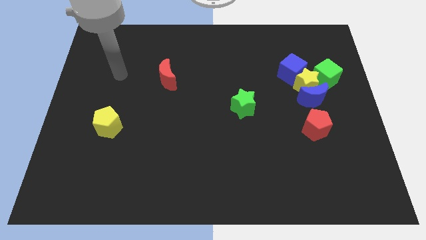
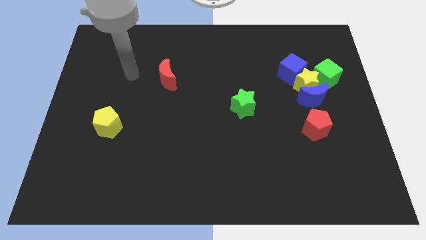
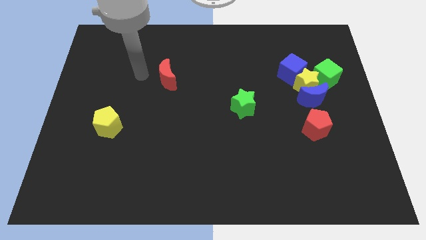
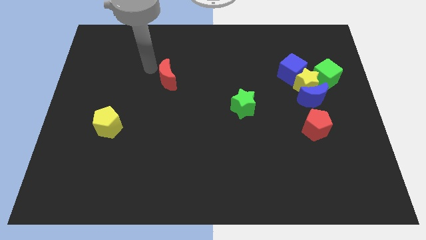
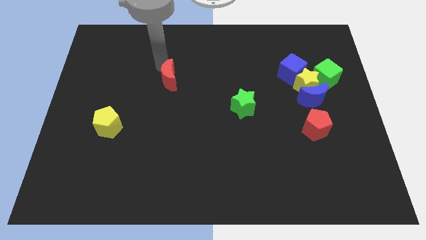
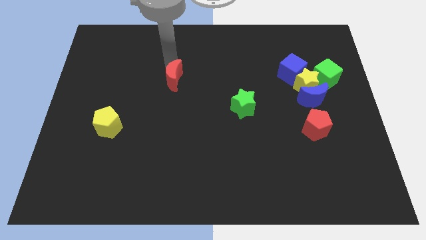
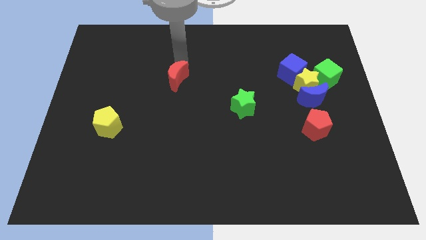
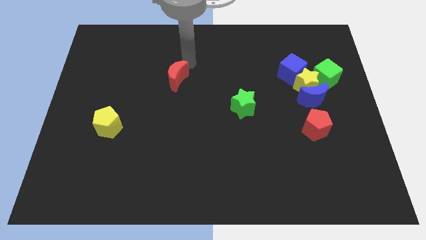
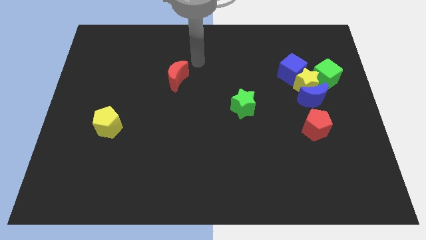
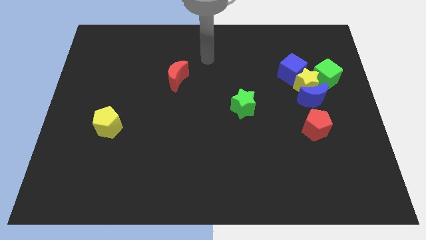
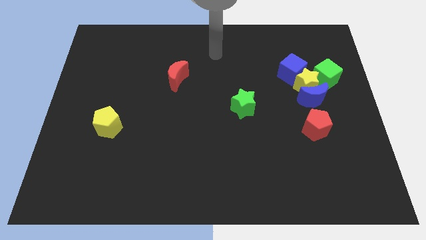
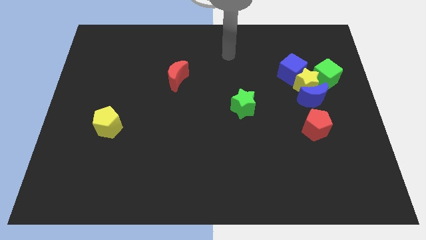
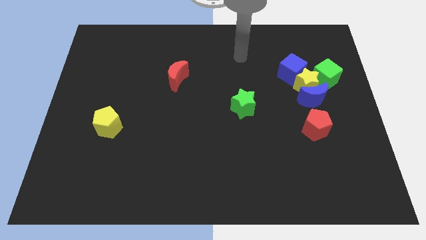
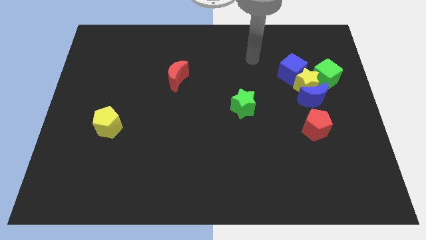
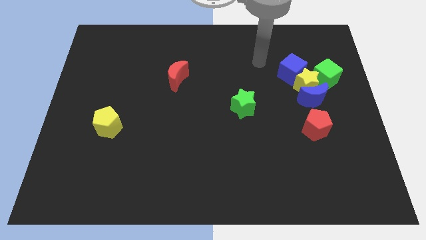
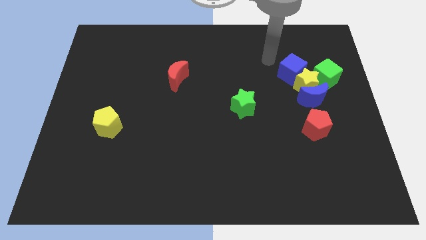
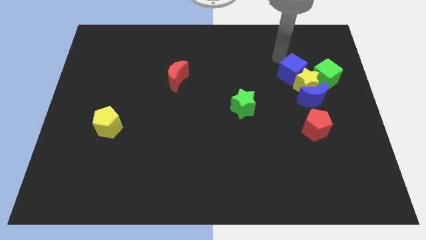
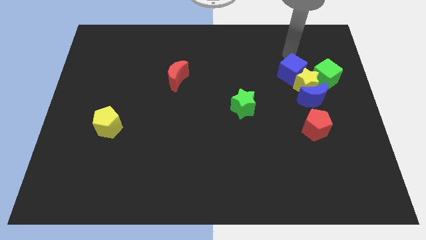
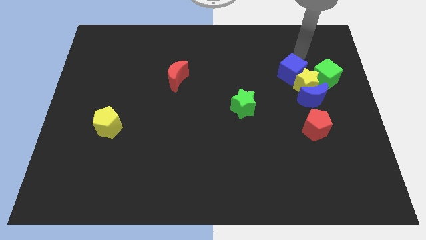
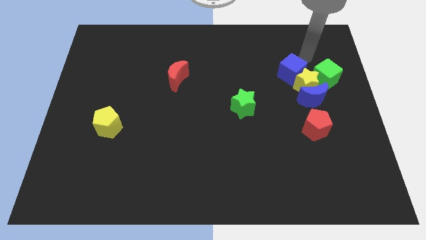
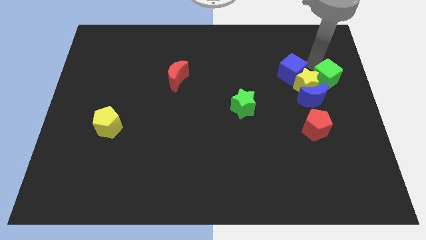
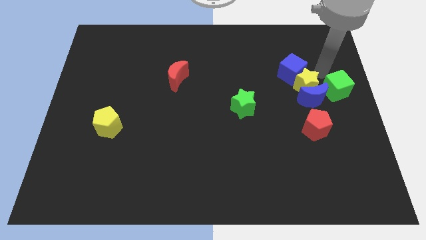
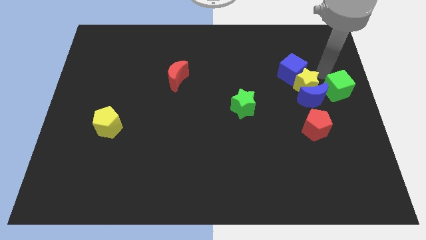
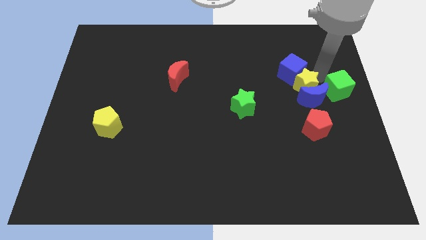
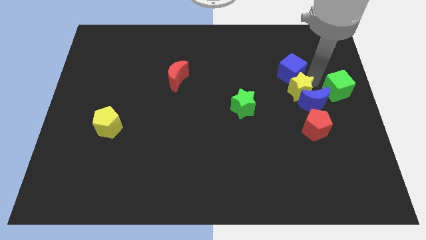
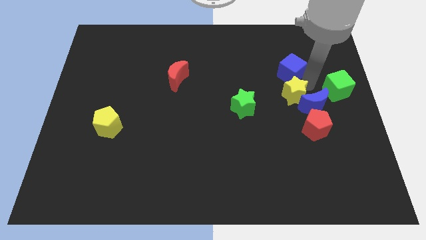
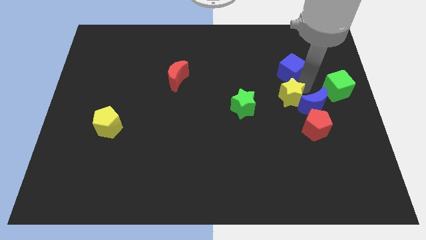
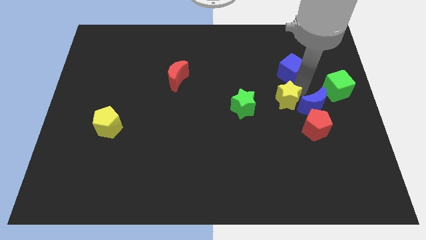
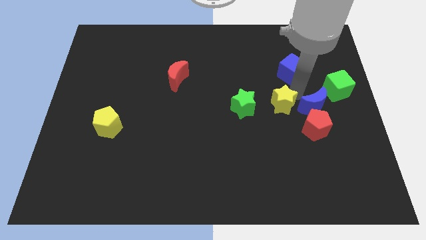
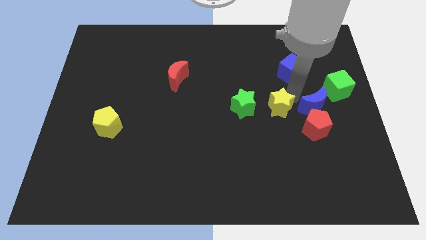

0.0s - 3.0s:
separate the yellow star from the group

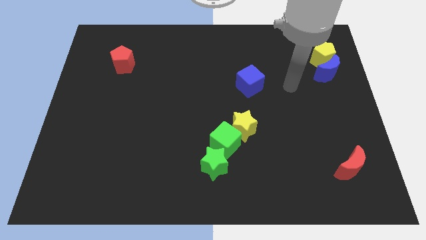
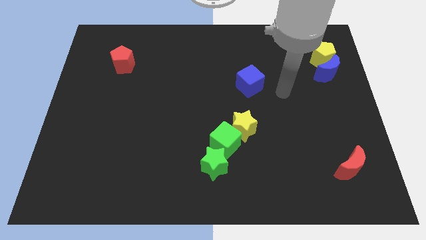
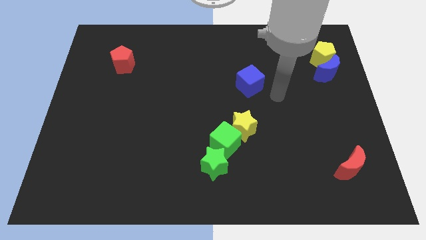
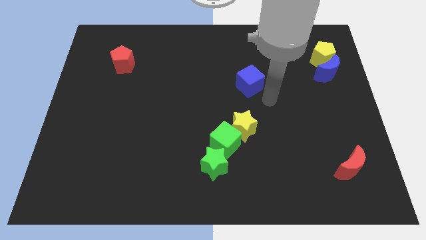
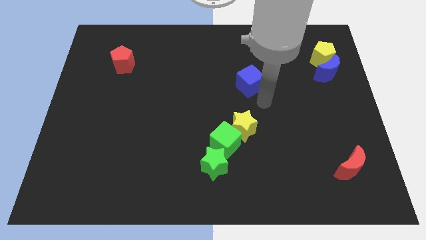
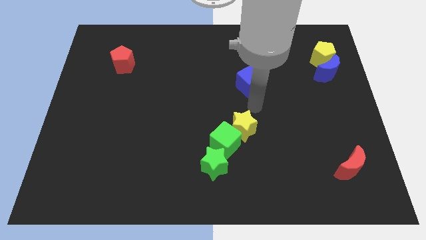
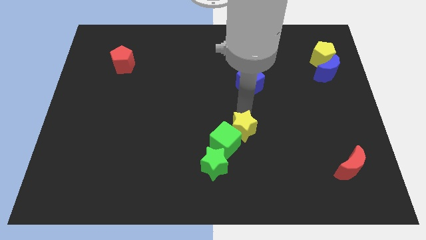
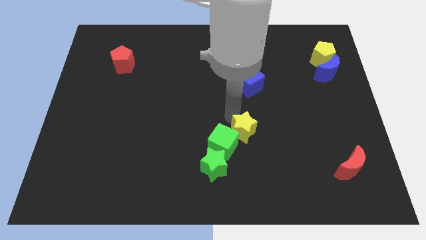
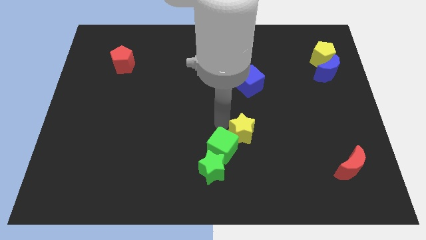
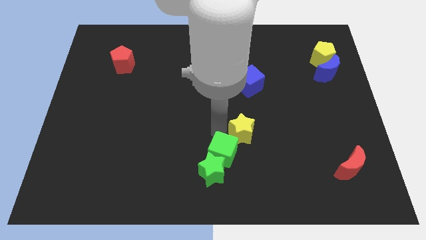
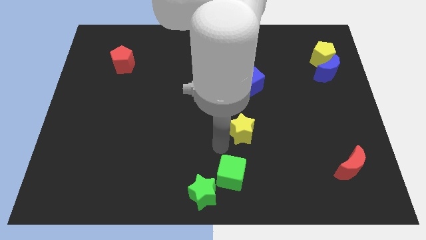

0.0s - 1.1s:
separate the yellow star from the green cube

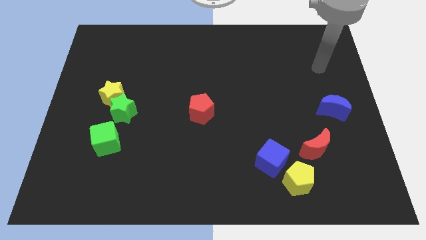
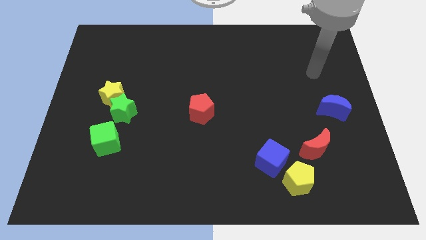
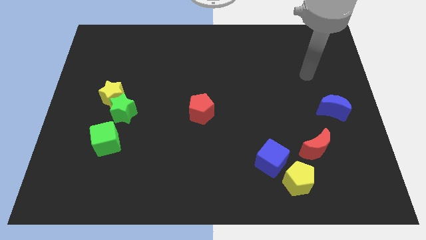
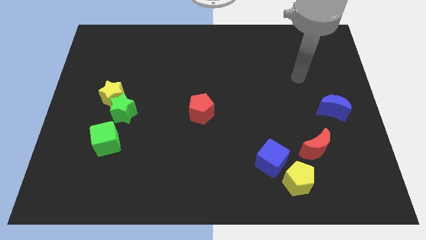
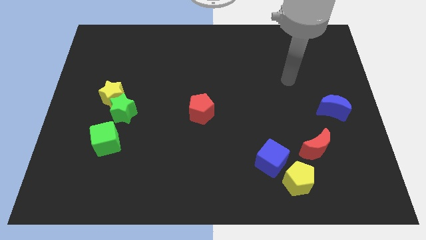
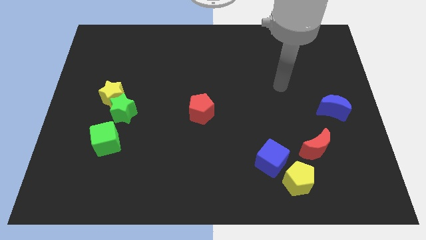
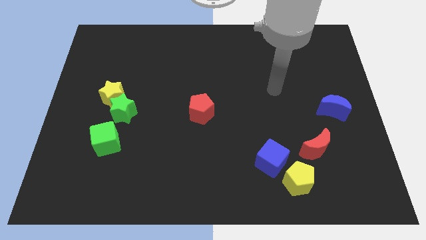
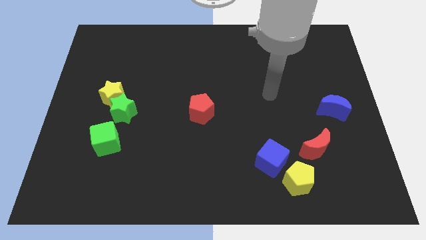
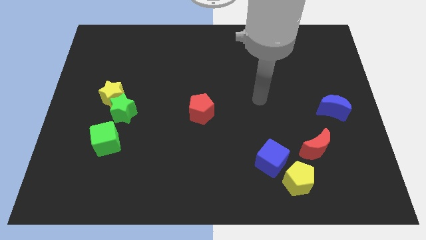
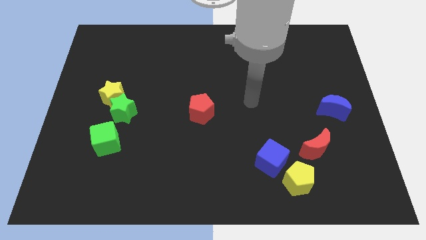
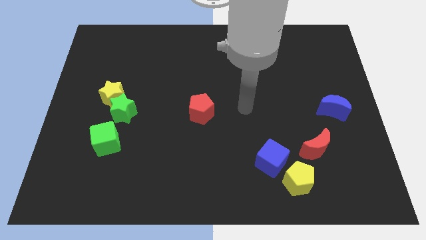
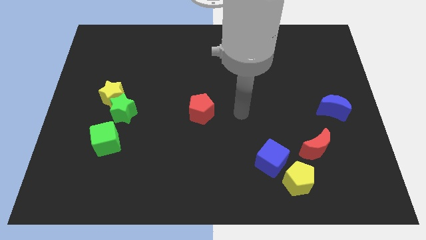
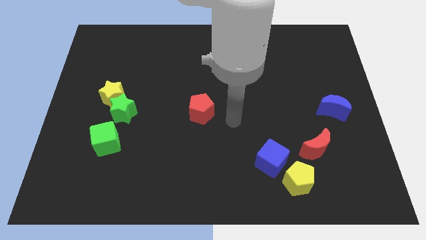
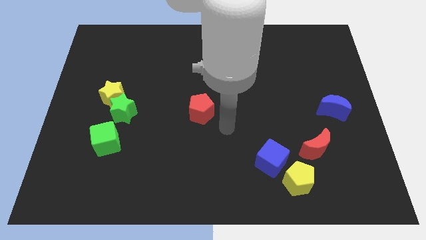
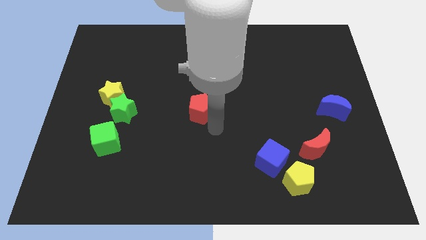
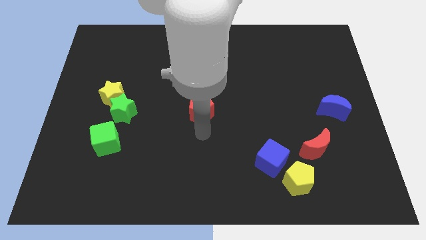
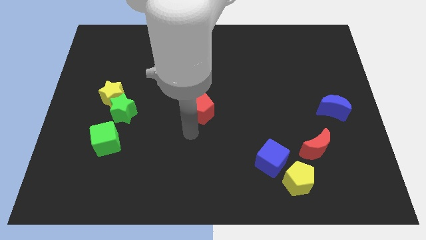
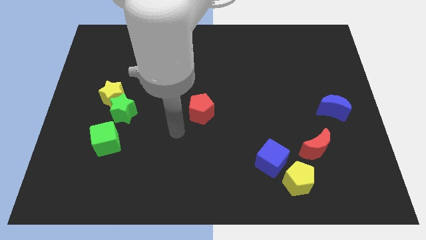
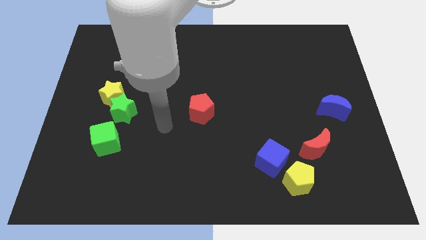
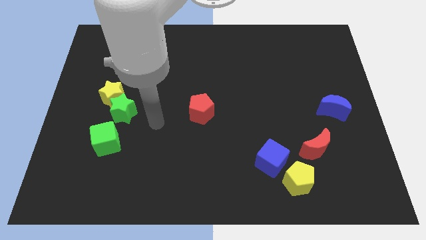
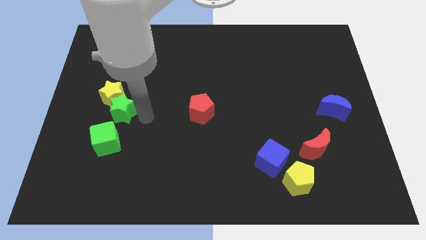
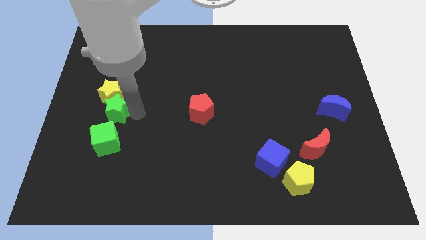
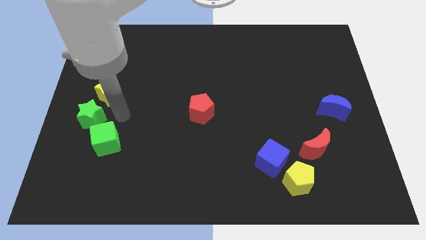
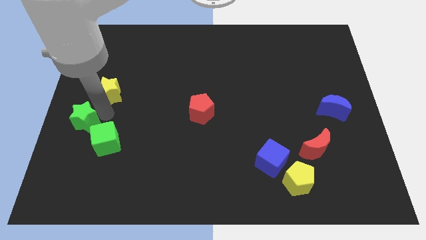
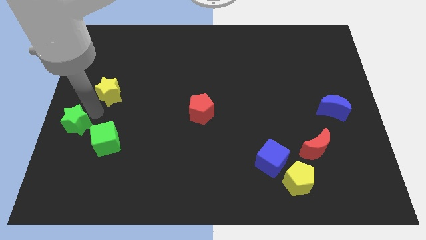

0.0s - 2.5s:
pull the yellow star apart from the green star

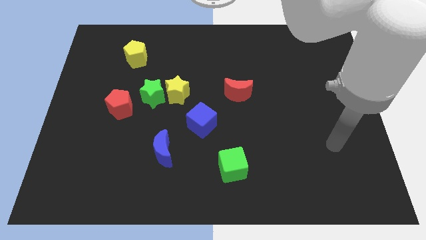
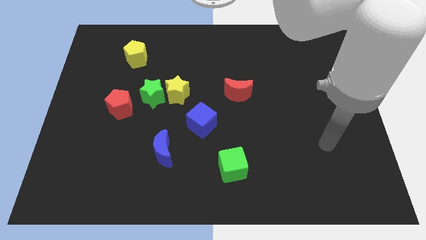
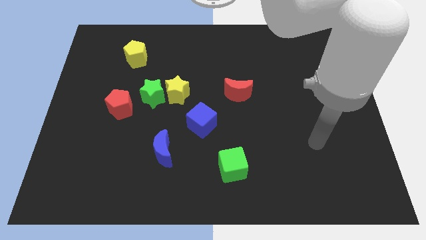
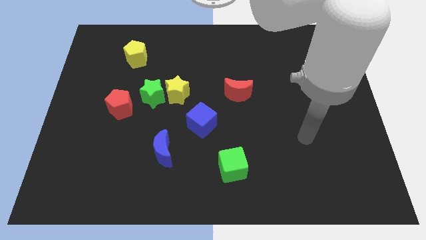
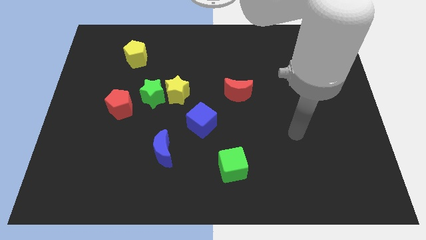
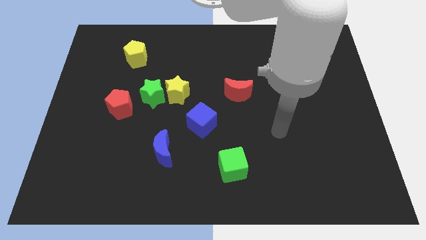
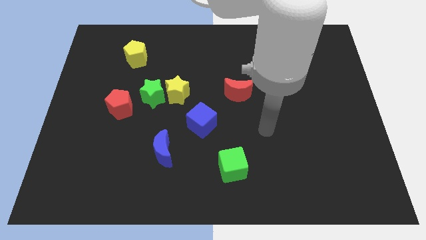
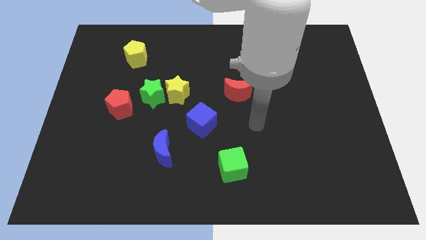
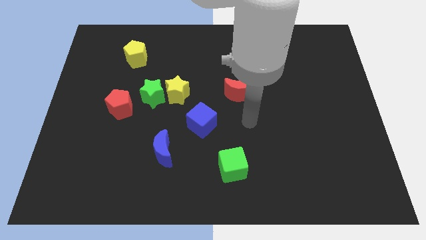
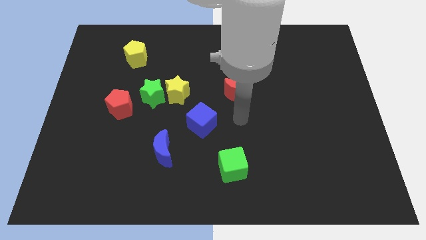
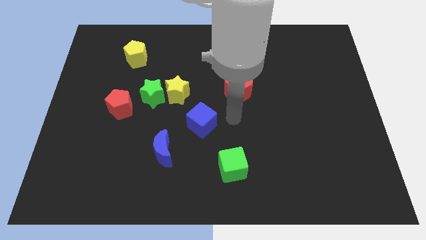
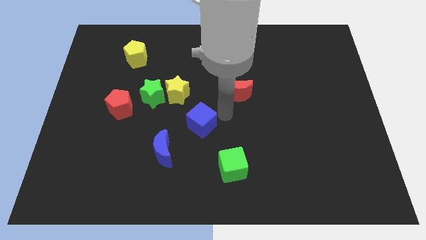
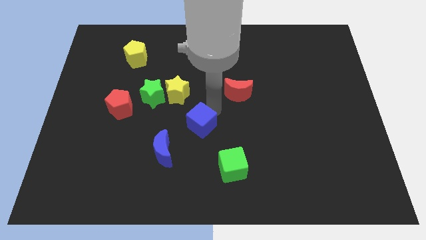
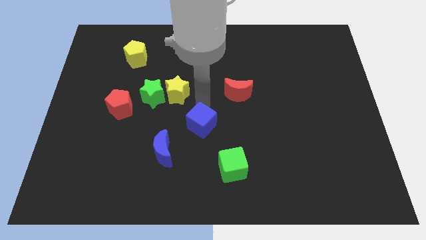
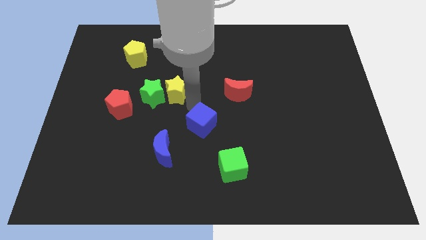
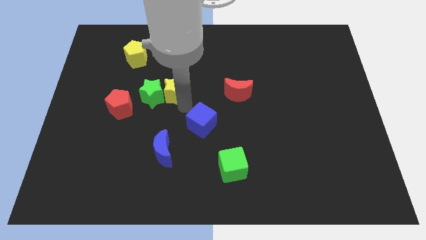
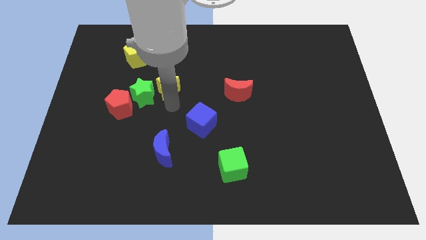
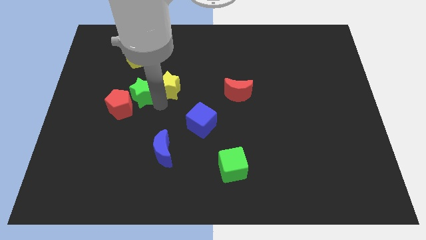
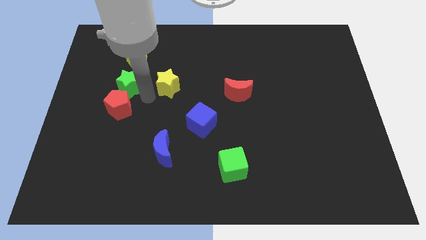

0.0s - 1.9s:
separate the yellow star from the green star

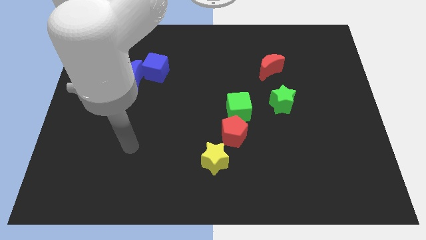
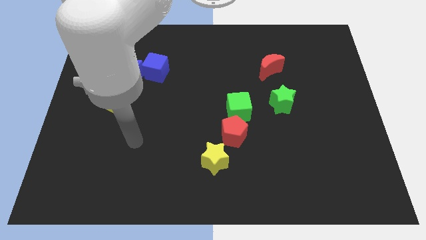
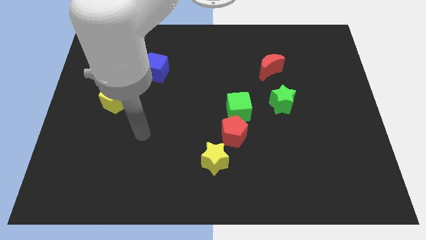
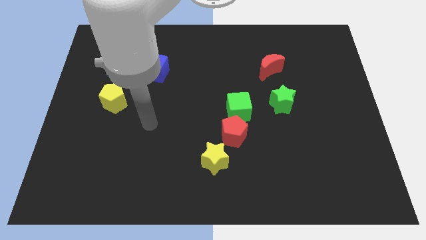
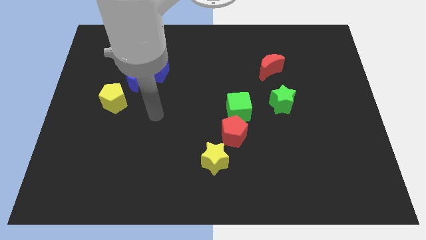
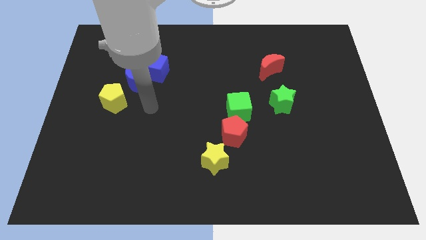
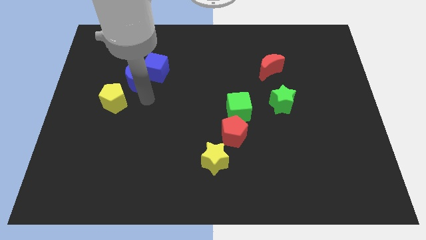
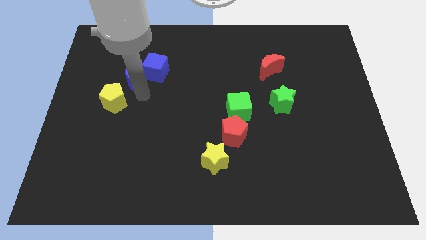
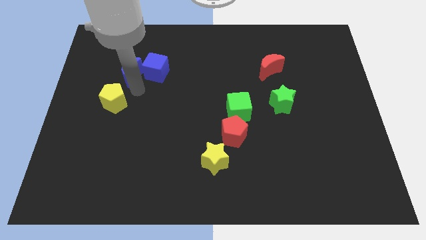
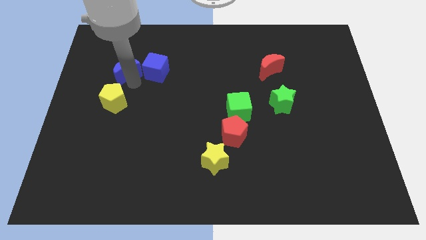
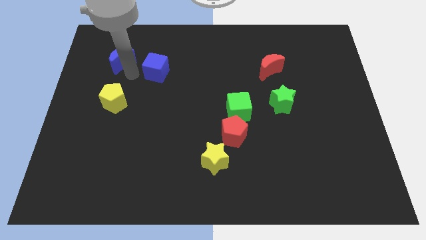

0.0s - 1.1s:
pull the blue cube apart from the blue moon
